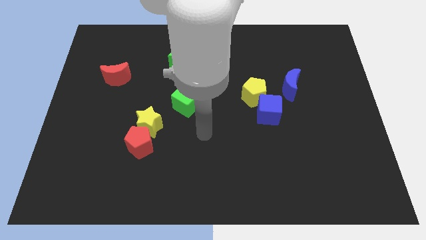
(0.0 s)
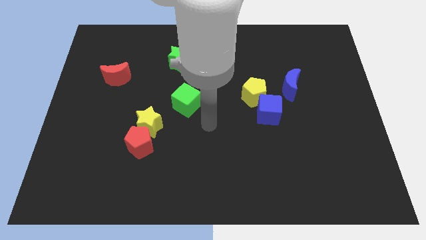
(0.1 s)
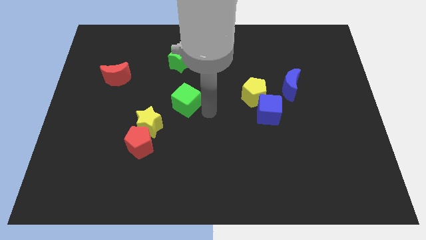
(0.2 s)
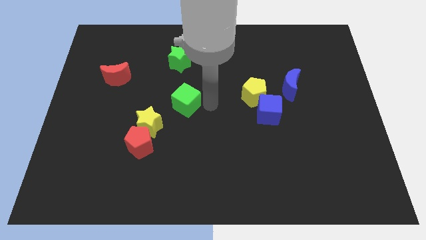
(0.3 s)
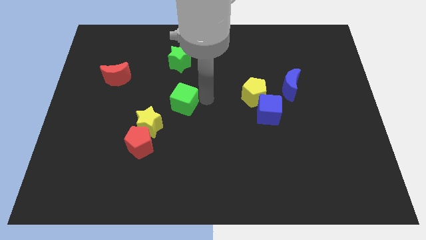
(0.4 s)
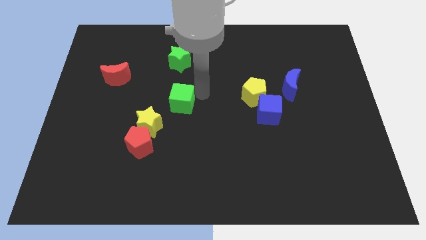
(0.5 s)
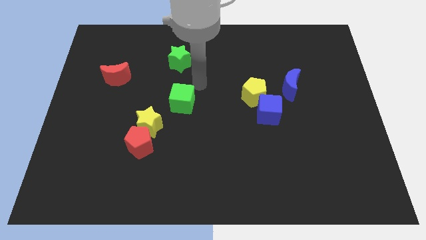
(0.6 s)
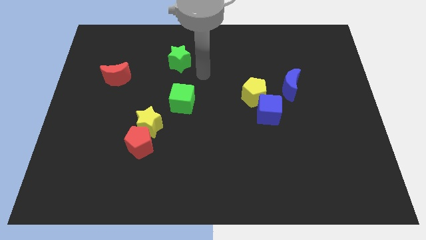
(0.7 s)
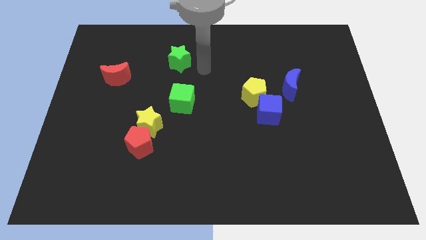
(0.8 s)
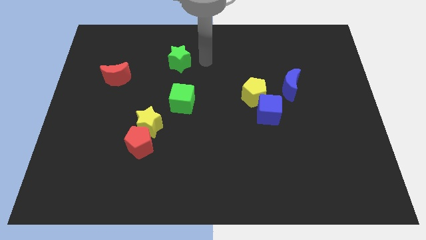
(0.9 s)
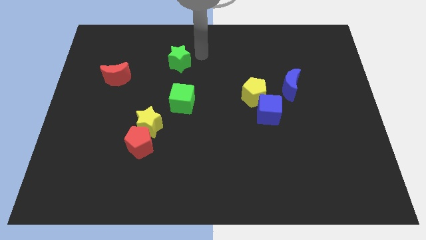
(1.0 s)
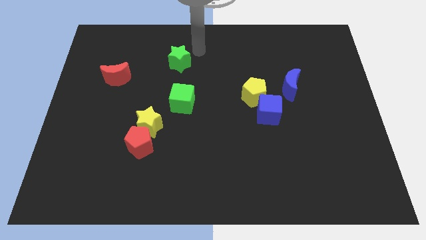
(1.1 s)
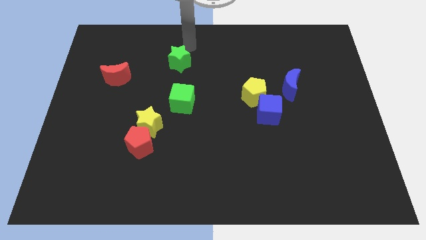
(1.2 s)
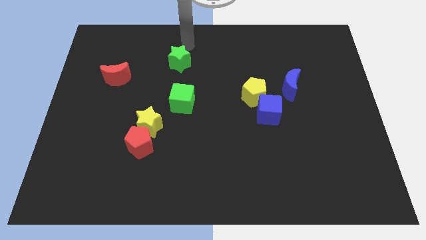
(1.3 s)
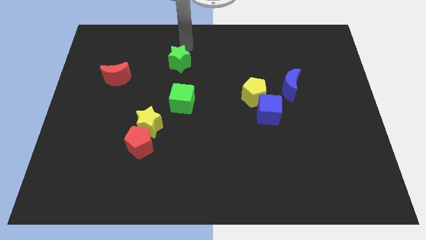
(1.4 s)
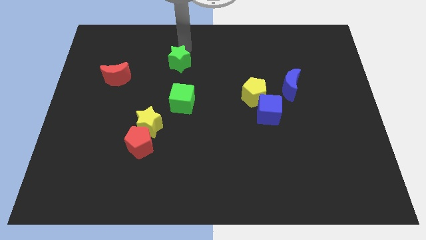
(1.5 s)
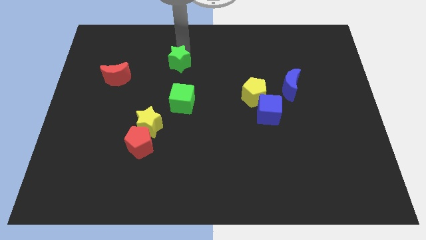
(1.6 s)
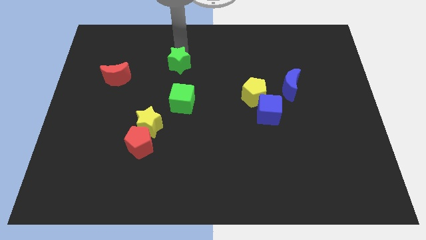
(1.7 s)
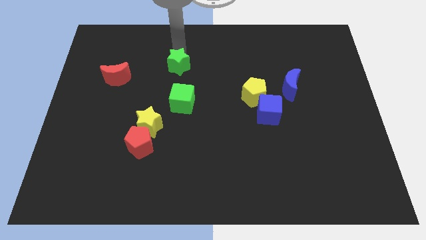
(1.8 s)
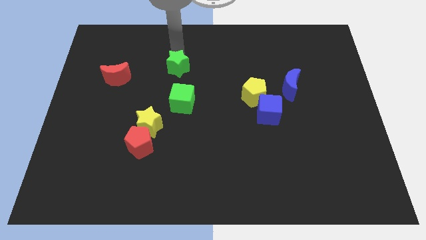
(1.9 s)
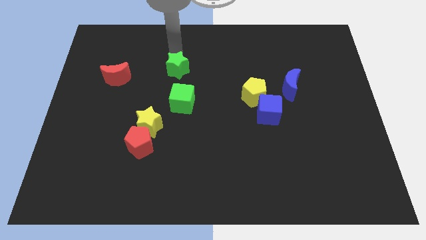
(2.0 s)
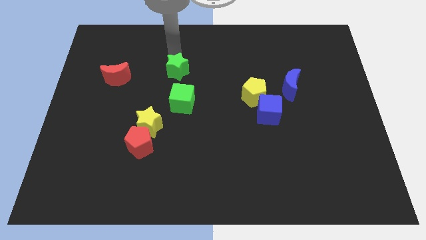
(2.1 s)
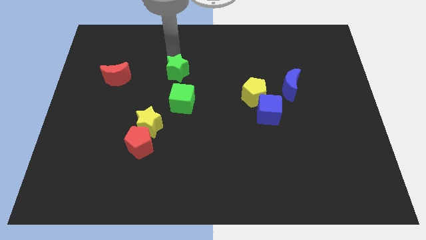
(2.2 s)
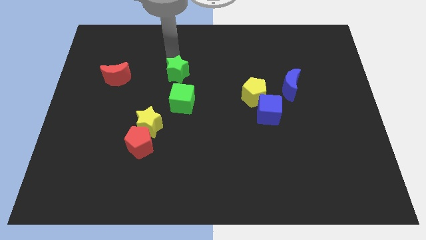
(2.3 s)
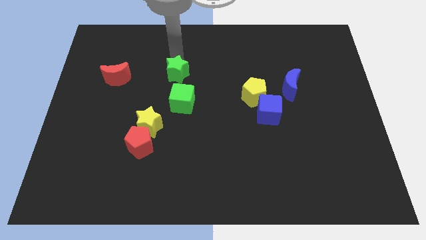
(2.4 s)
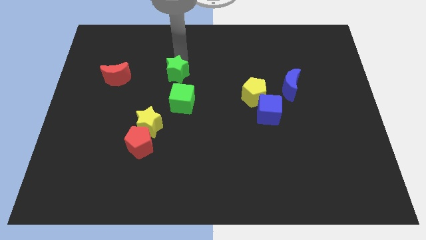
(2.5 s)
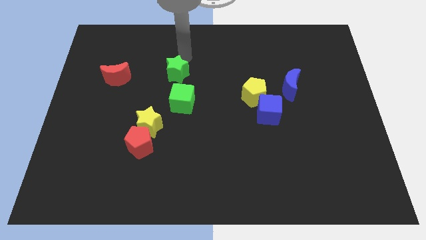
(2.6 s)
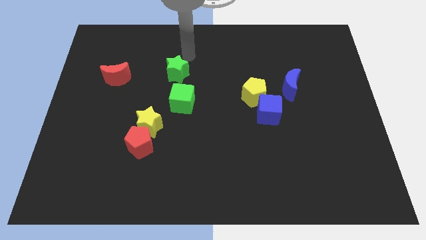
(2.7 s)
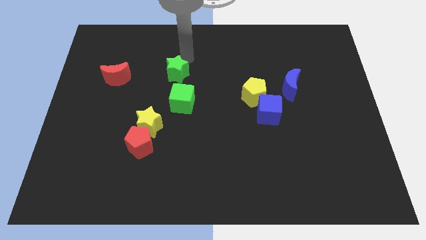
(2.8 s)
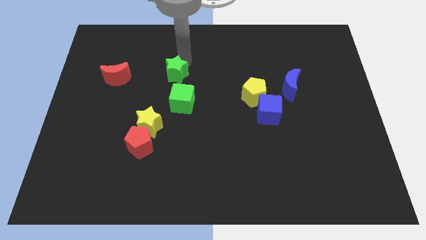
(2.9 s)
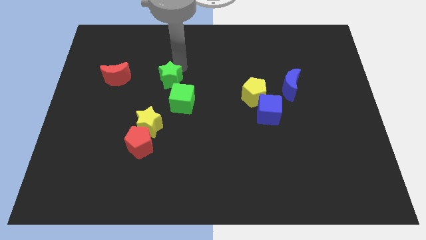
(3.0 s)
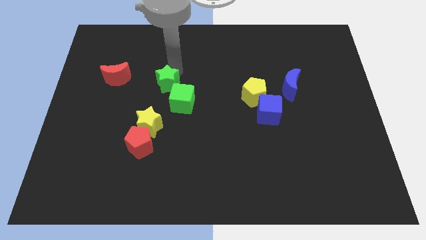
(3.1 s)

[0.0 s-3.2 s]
push the green star down somewhat

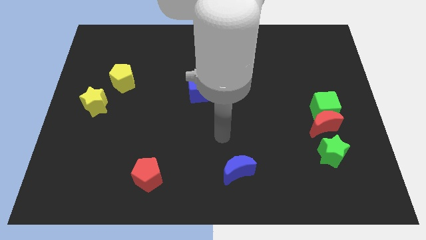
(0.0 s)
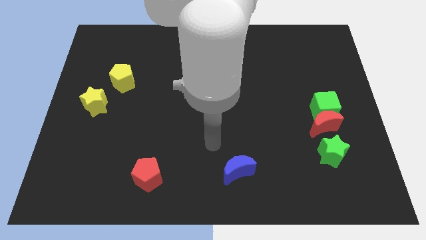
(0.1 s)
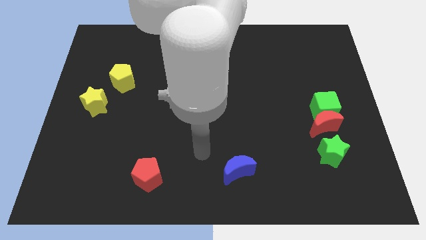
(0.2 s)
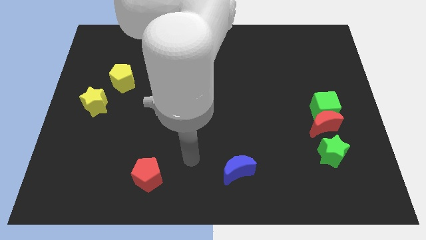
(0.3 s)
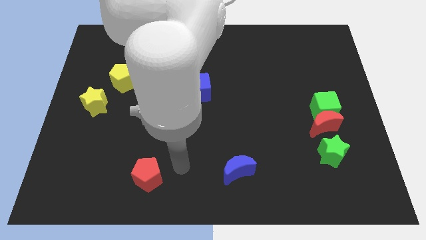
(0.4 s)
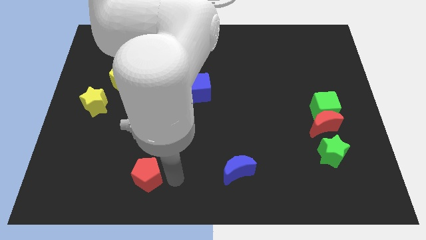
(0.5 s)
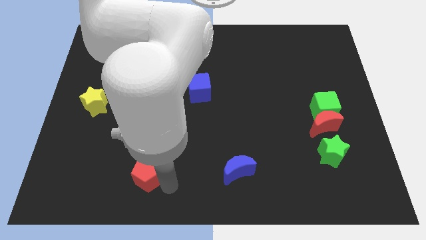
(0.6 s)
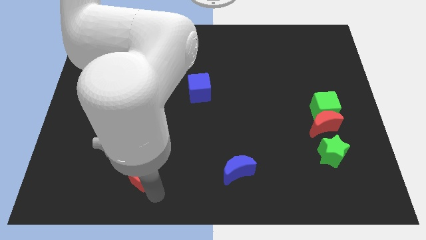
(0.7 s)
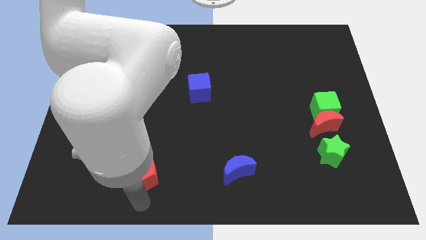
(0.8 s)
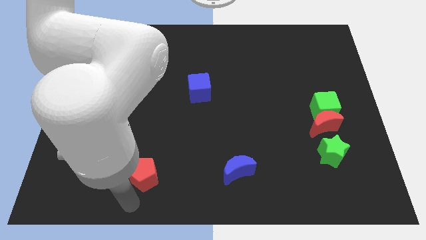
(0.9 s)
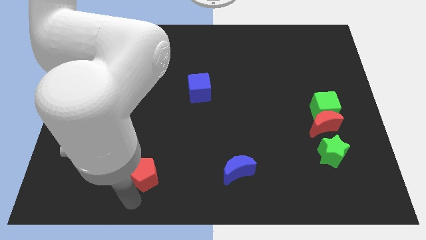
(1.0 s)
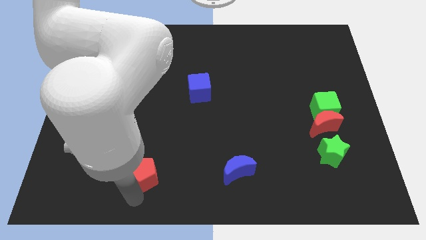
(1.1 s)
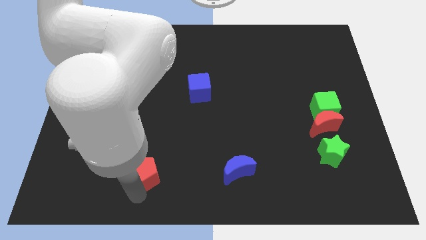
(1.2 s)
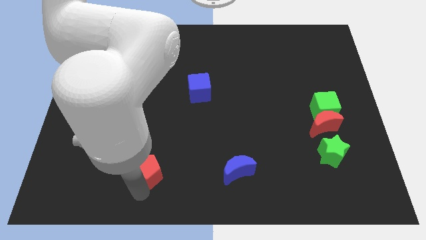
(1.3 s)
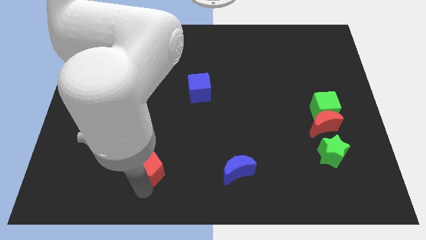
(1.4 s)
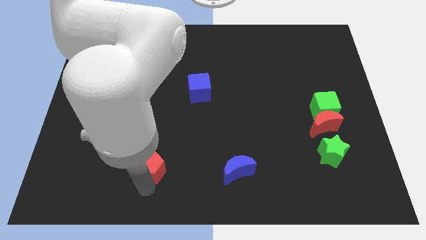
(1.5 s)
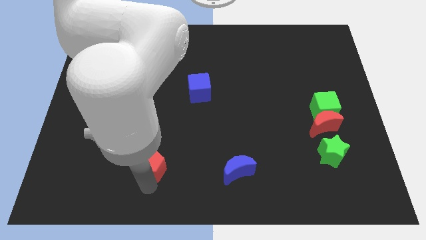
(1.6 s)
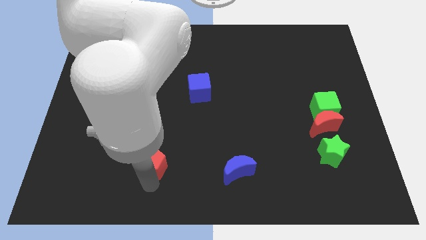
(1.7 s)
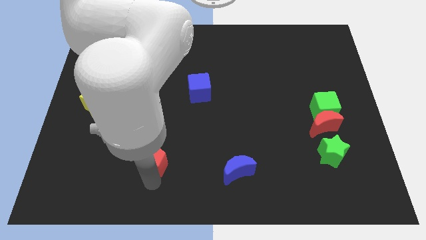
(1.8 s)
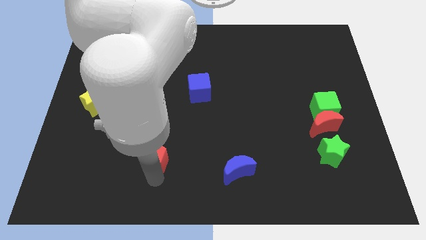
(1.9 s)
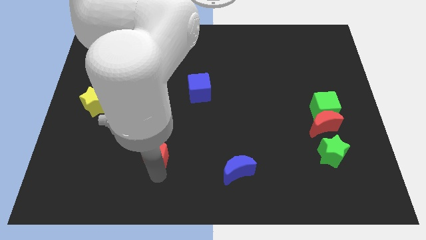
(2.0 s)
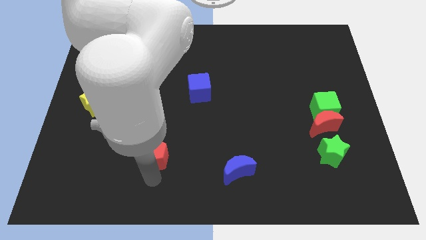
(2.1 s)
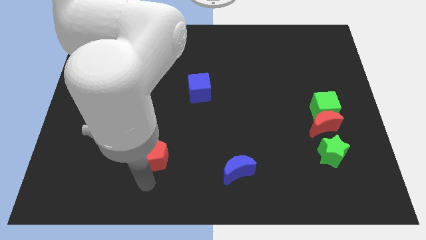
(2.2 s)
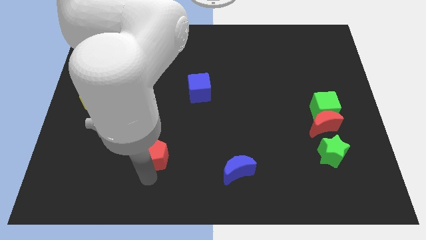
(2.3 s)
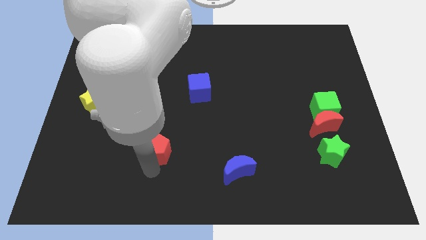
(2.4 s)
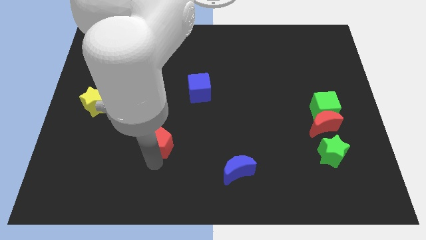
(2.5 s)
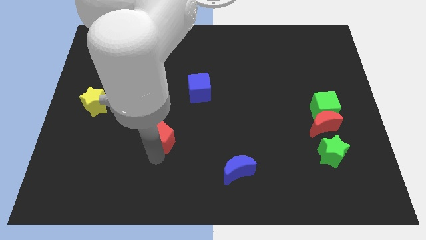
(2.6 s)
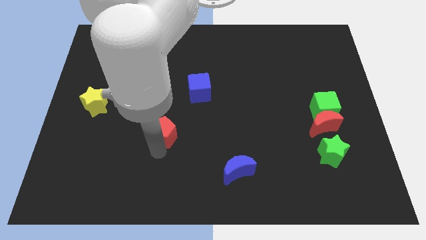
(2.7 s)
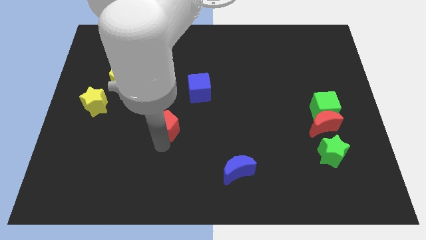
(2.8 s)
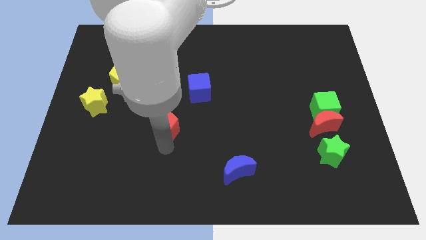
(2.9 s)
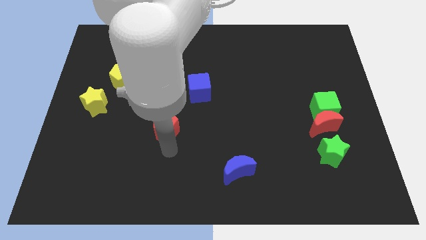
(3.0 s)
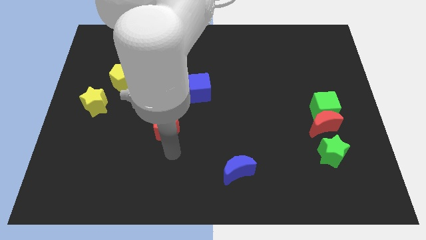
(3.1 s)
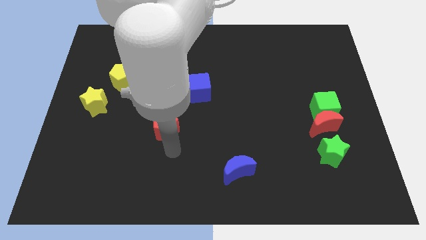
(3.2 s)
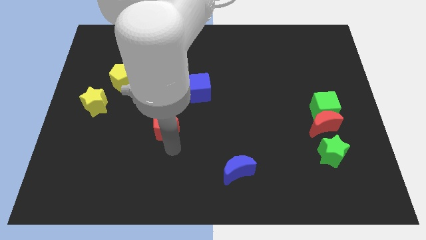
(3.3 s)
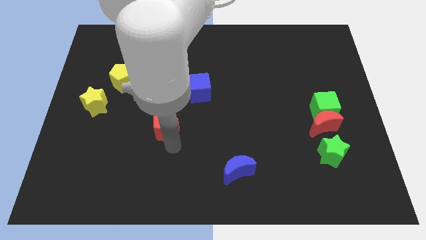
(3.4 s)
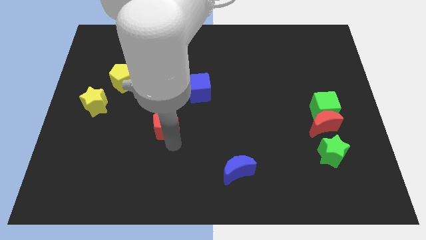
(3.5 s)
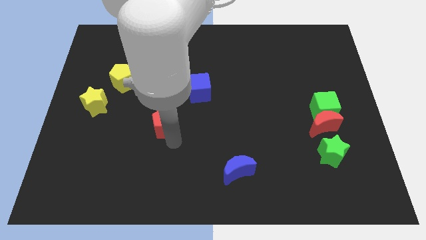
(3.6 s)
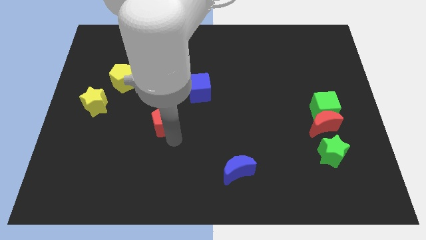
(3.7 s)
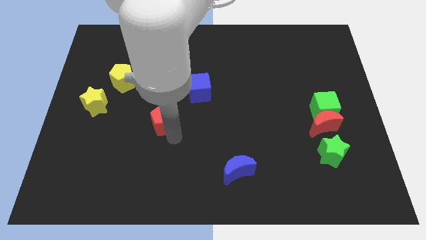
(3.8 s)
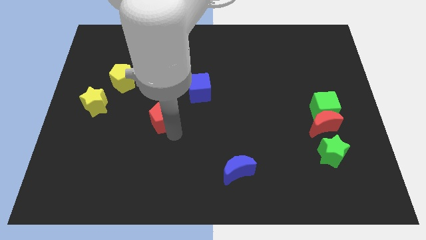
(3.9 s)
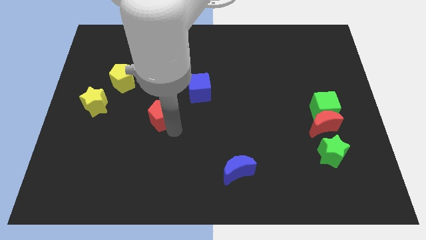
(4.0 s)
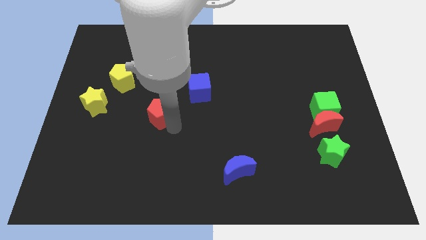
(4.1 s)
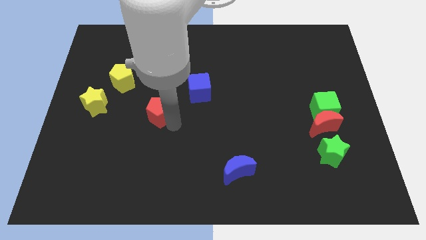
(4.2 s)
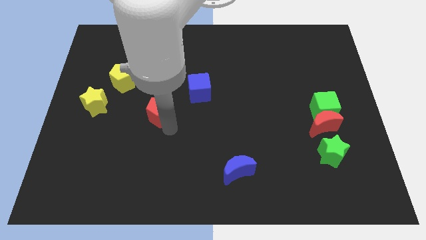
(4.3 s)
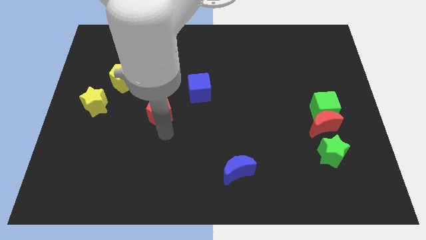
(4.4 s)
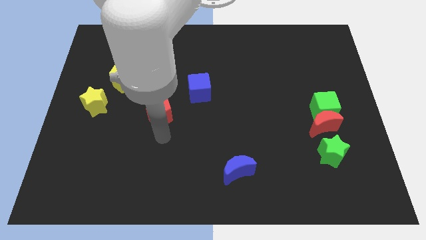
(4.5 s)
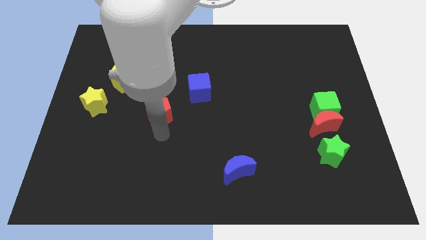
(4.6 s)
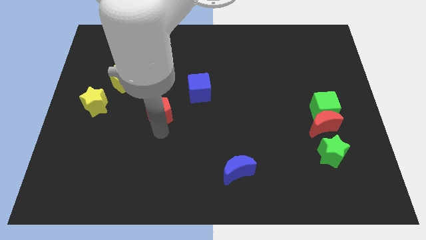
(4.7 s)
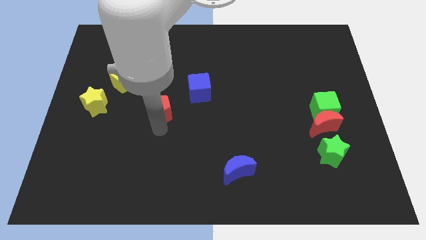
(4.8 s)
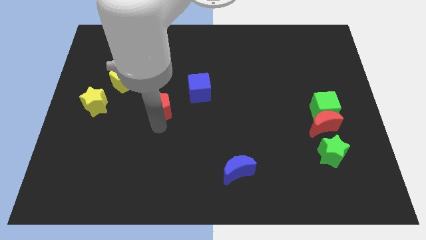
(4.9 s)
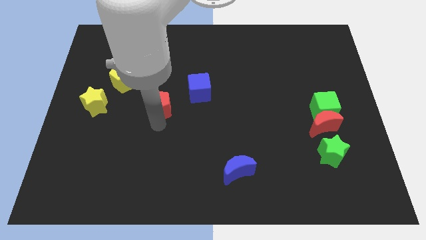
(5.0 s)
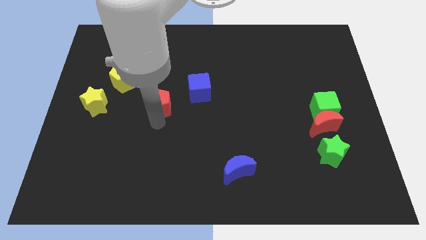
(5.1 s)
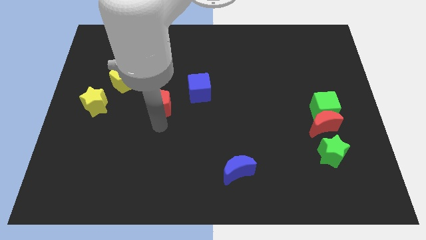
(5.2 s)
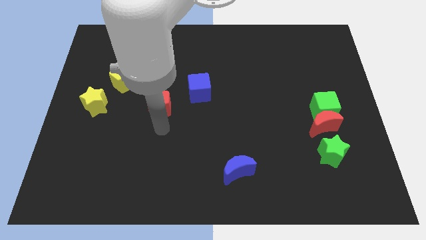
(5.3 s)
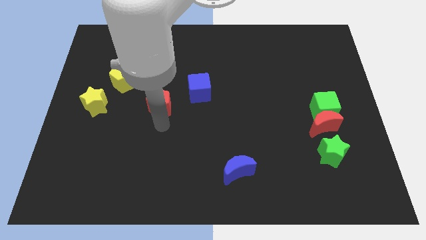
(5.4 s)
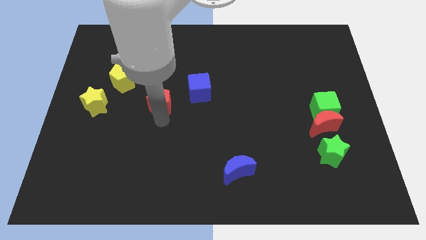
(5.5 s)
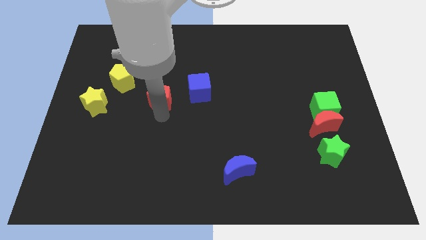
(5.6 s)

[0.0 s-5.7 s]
move the red pentagon upwards
